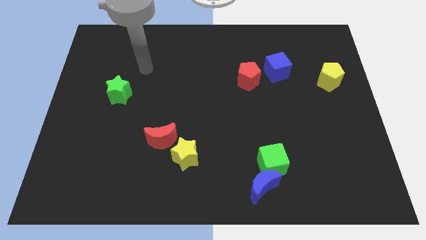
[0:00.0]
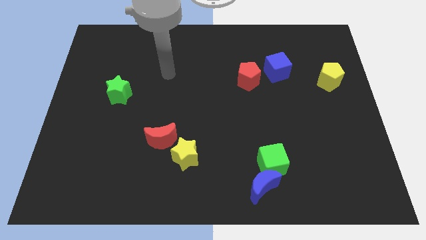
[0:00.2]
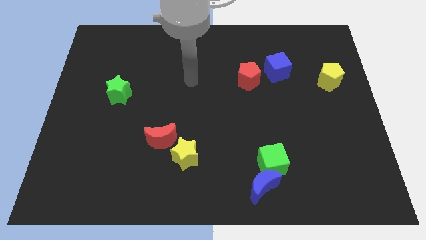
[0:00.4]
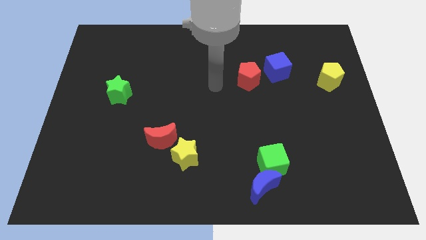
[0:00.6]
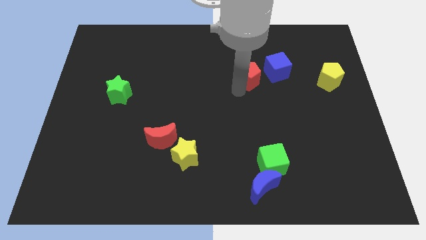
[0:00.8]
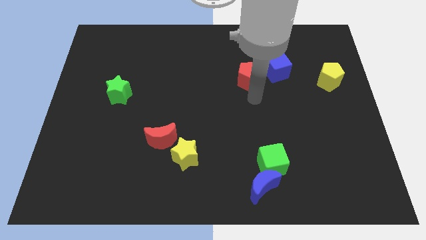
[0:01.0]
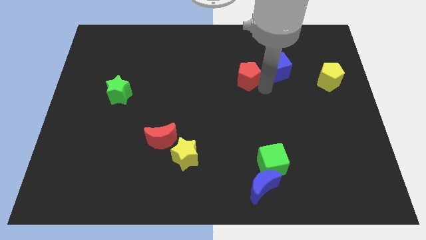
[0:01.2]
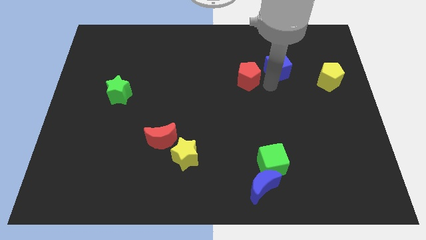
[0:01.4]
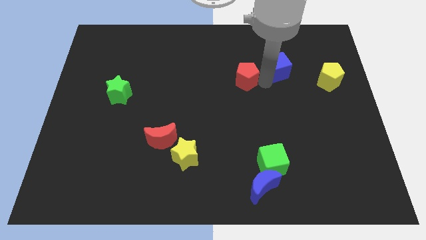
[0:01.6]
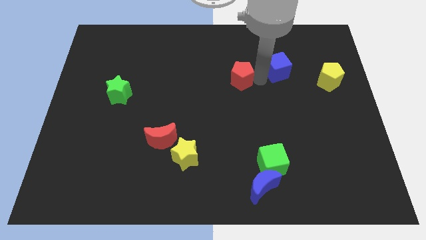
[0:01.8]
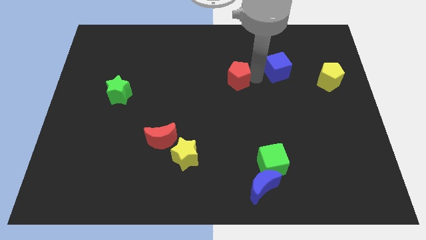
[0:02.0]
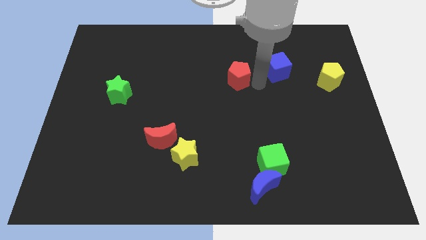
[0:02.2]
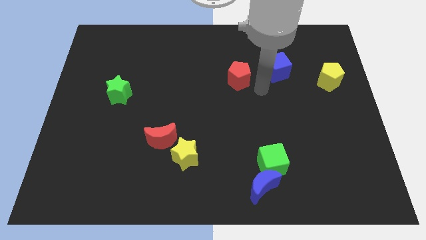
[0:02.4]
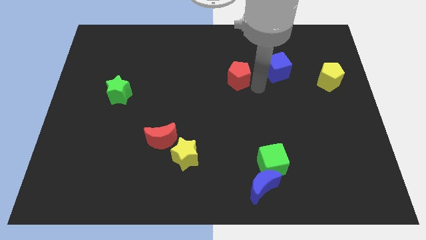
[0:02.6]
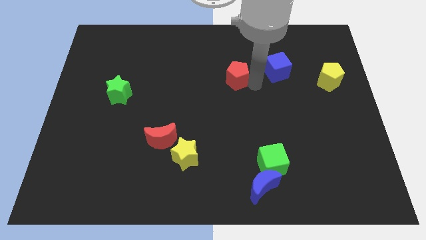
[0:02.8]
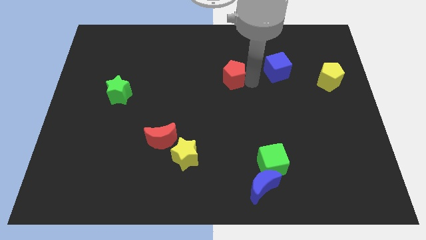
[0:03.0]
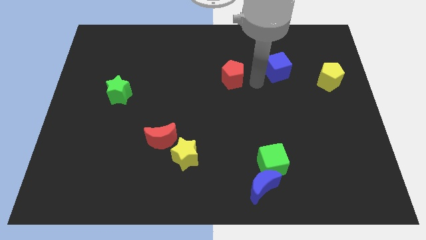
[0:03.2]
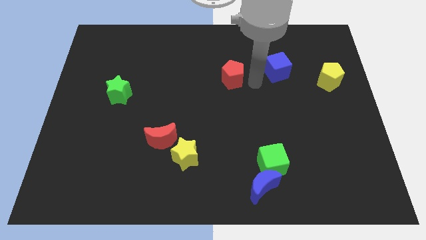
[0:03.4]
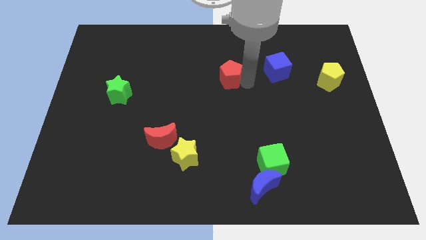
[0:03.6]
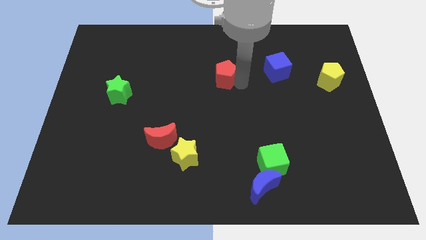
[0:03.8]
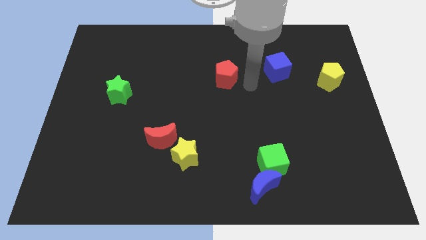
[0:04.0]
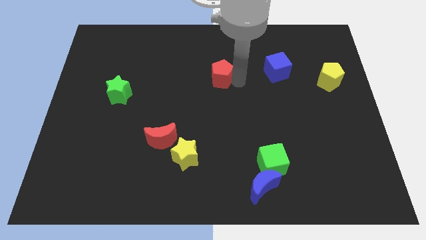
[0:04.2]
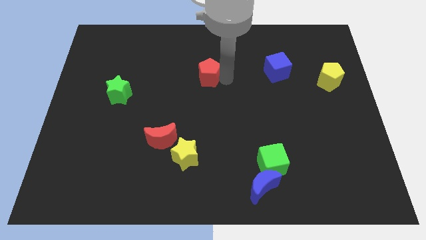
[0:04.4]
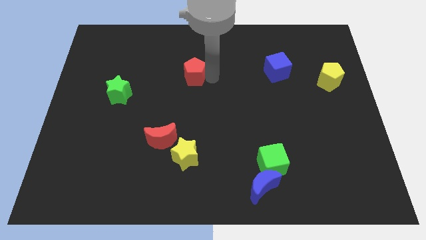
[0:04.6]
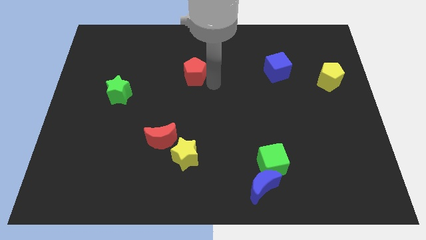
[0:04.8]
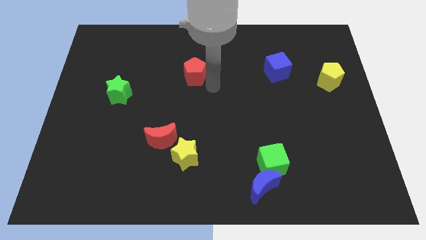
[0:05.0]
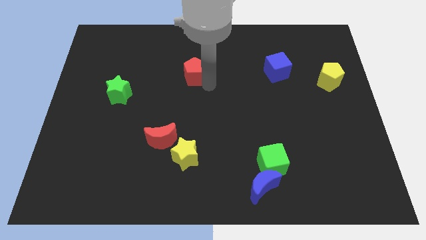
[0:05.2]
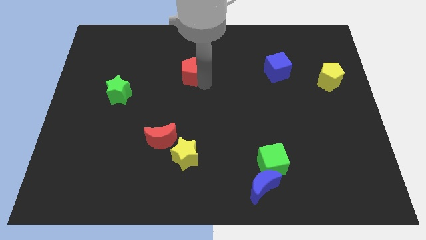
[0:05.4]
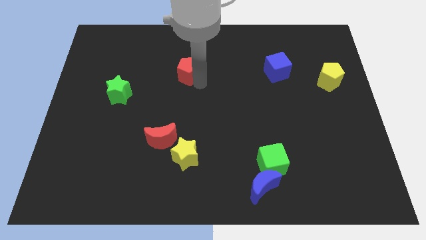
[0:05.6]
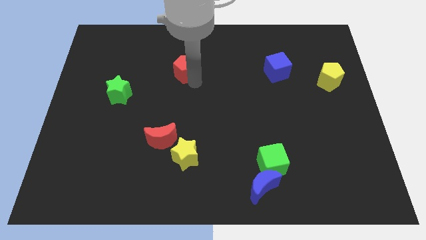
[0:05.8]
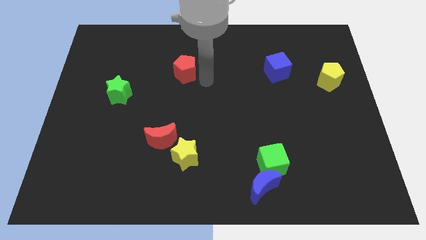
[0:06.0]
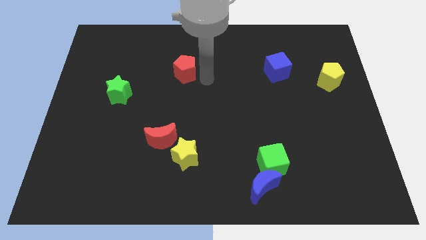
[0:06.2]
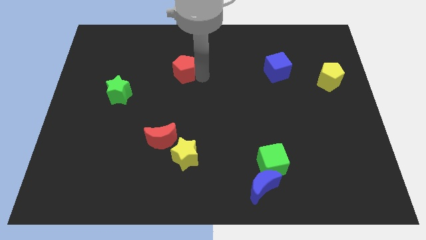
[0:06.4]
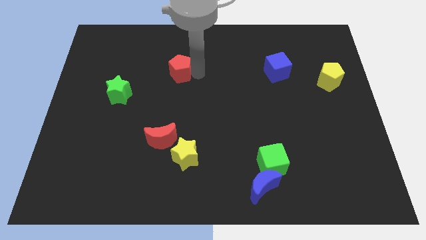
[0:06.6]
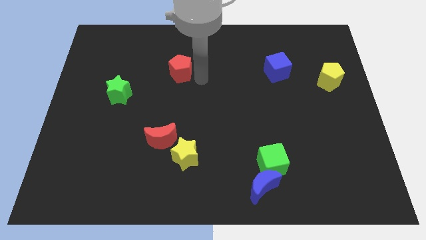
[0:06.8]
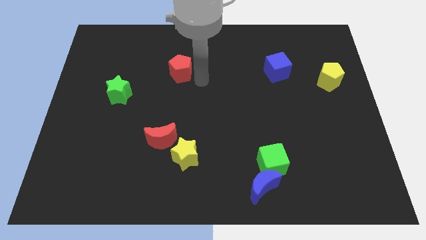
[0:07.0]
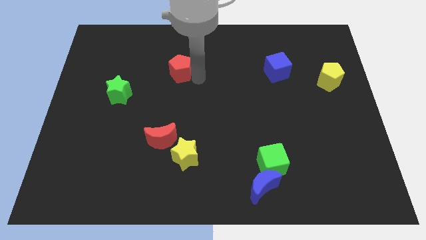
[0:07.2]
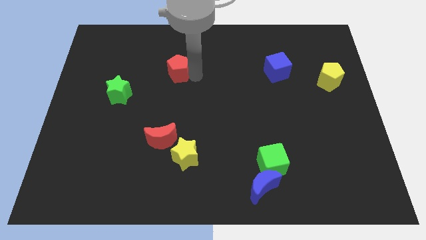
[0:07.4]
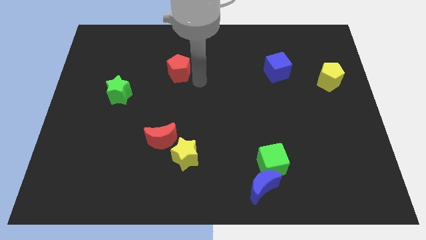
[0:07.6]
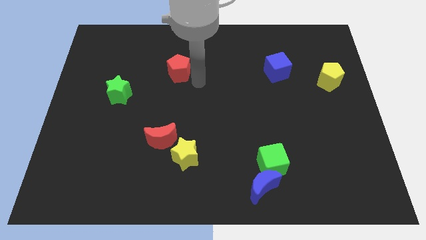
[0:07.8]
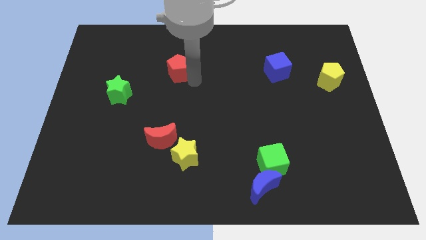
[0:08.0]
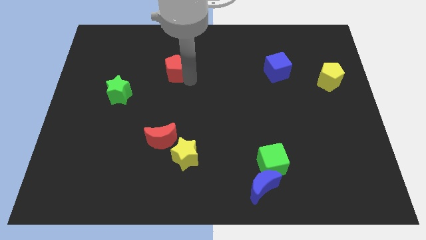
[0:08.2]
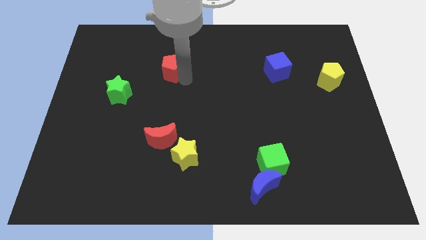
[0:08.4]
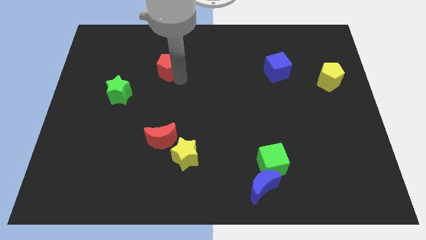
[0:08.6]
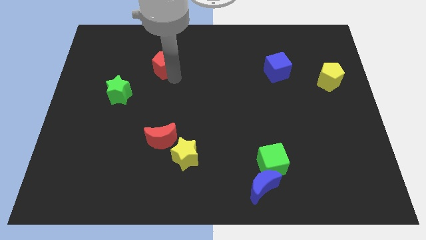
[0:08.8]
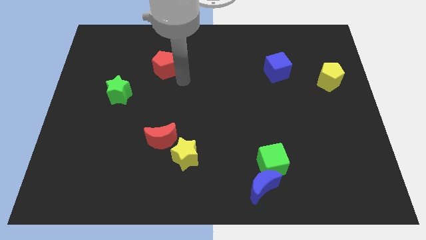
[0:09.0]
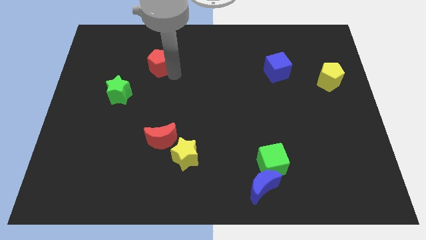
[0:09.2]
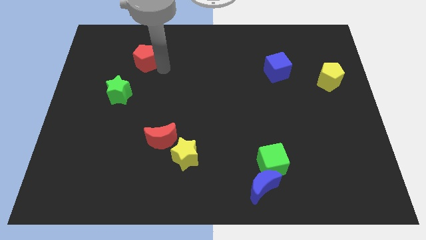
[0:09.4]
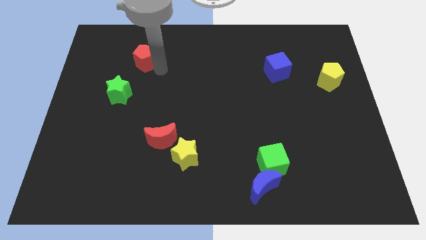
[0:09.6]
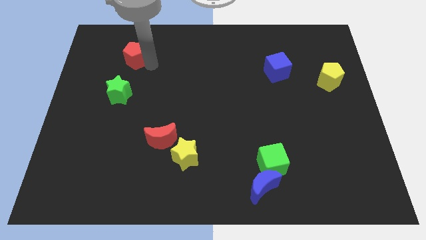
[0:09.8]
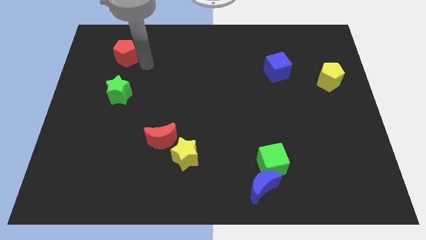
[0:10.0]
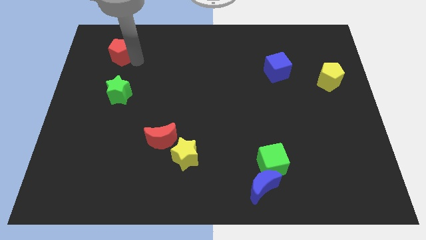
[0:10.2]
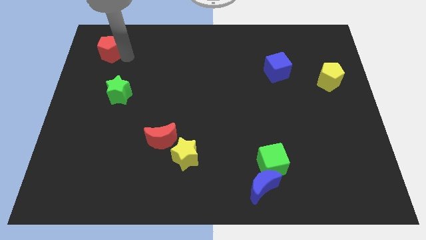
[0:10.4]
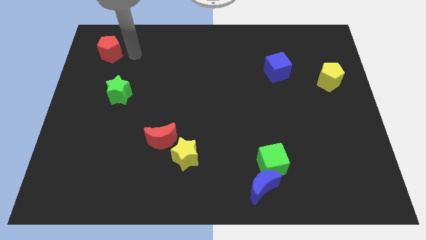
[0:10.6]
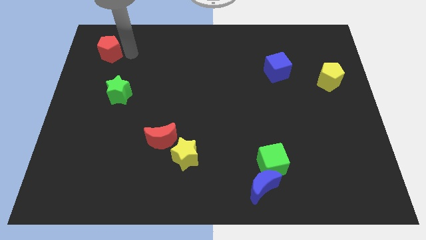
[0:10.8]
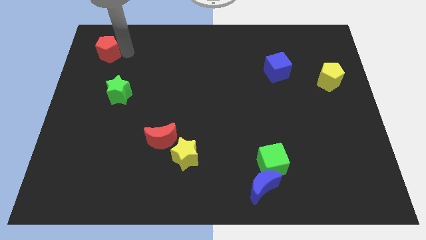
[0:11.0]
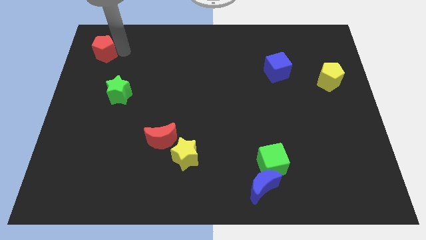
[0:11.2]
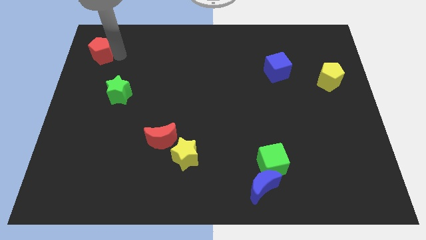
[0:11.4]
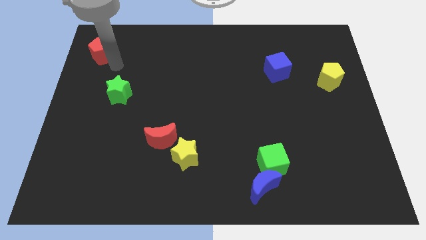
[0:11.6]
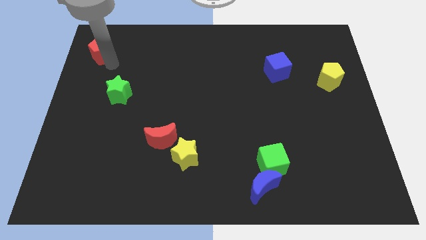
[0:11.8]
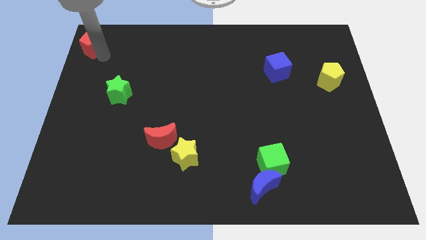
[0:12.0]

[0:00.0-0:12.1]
slide the red pentagon to the upper left corner
